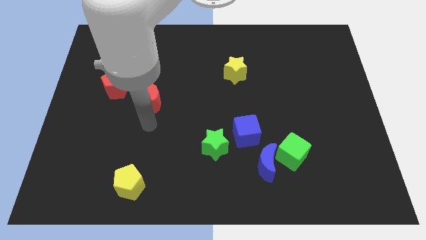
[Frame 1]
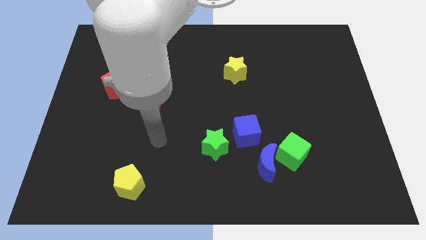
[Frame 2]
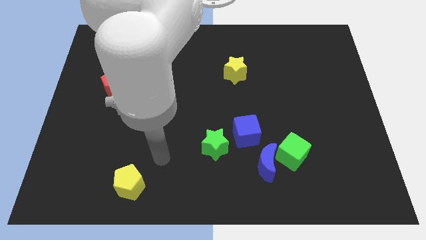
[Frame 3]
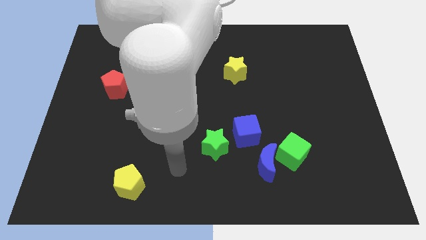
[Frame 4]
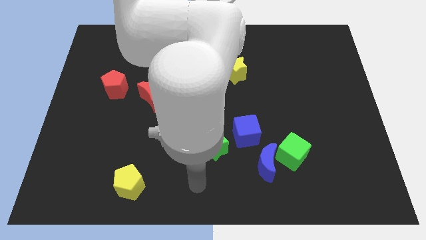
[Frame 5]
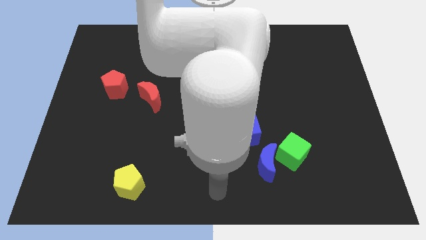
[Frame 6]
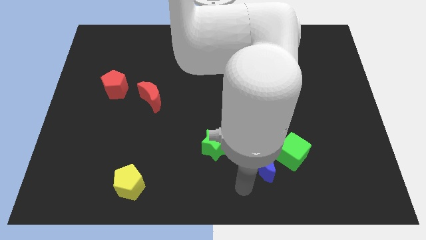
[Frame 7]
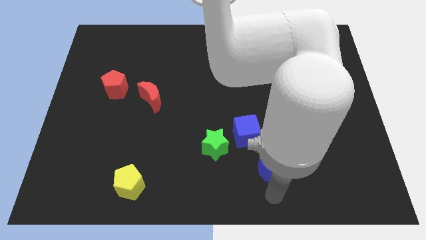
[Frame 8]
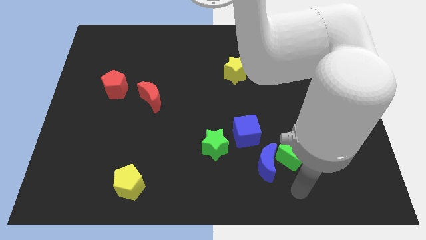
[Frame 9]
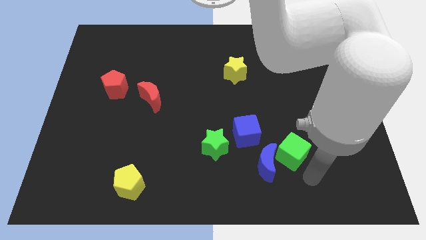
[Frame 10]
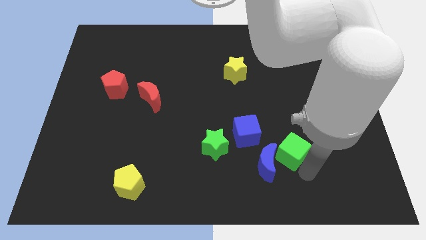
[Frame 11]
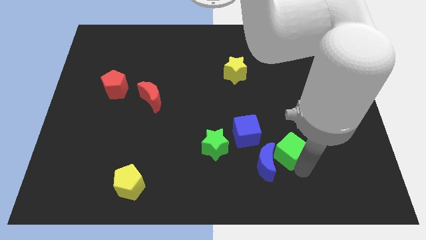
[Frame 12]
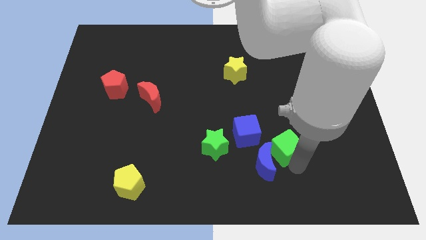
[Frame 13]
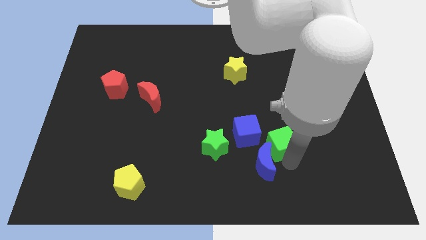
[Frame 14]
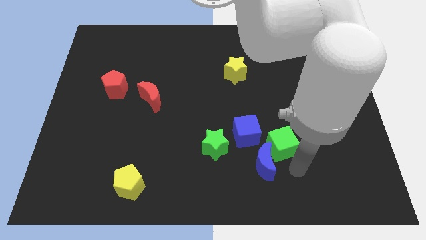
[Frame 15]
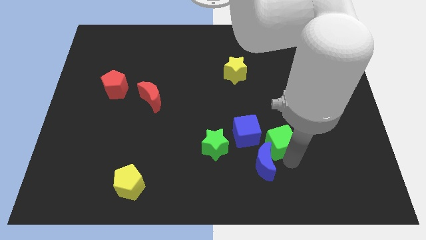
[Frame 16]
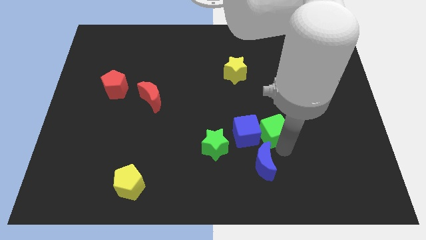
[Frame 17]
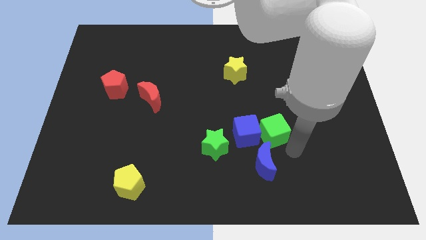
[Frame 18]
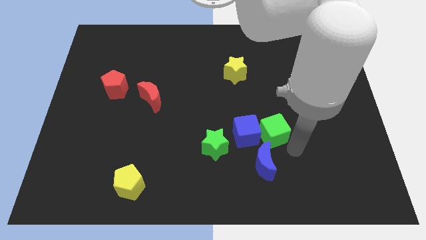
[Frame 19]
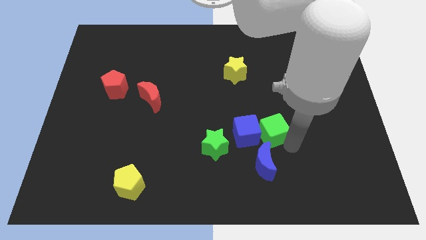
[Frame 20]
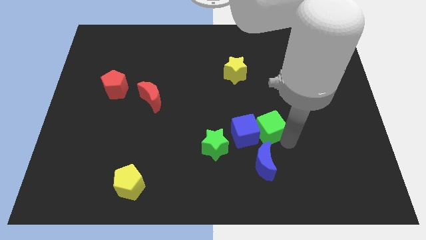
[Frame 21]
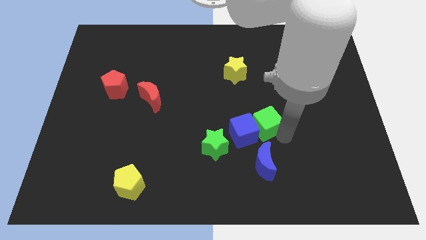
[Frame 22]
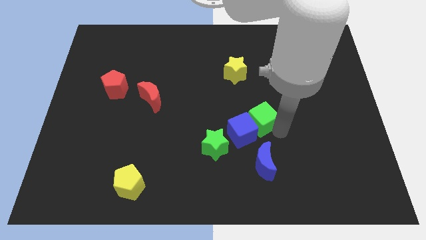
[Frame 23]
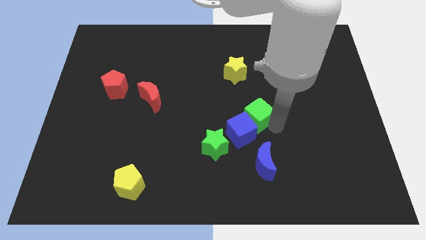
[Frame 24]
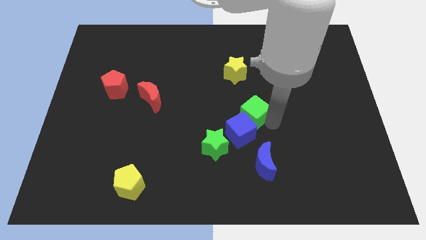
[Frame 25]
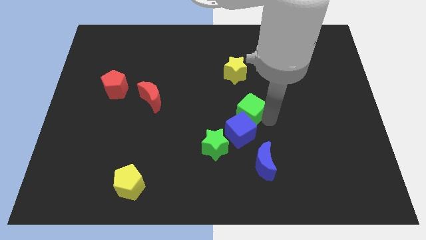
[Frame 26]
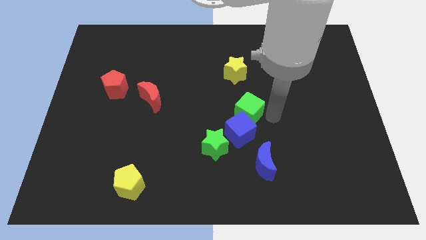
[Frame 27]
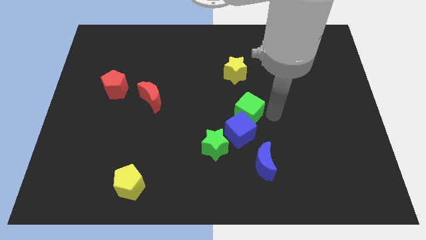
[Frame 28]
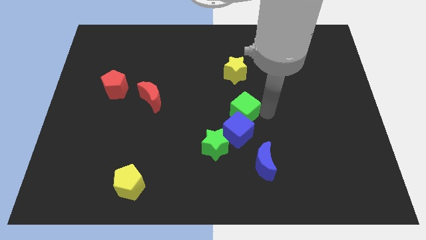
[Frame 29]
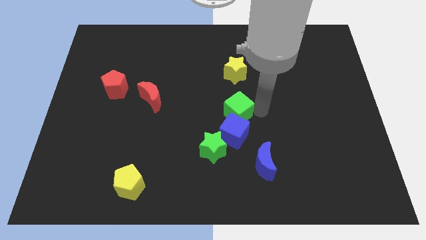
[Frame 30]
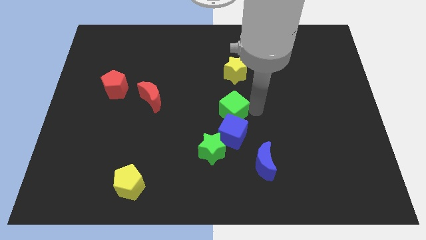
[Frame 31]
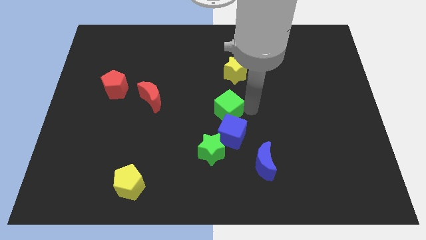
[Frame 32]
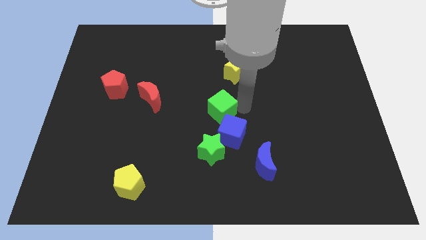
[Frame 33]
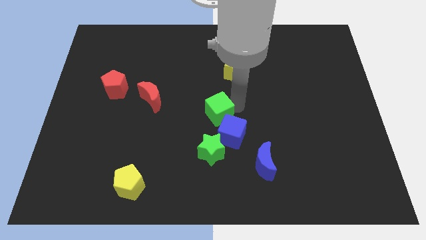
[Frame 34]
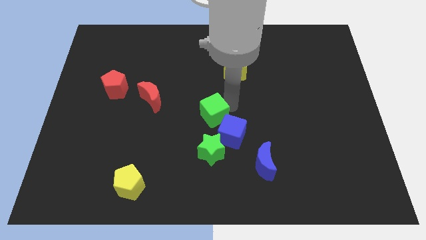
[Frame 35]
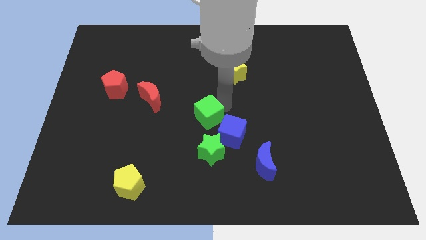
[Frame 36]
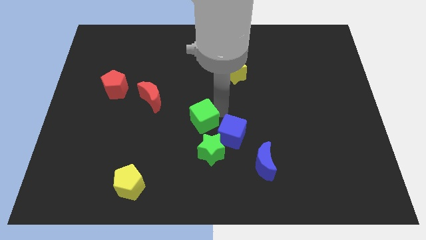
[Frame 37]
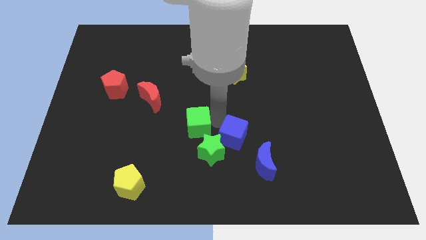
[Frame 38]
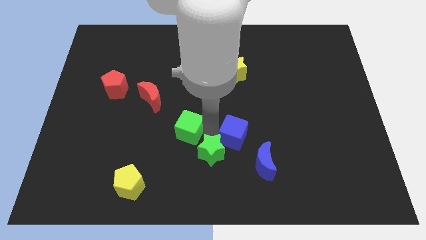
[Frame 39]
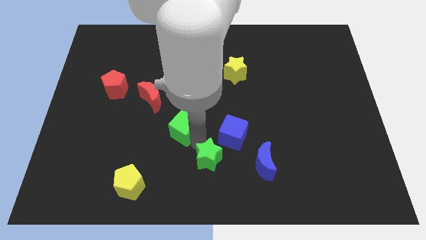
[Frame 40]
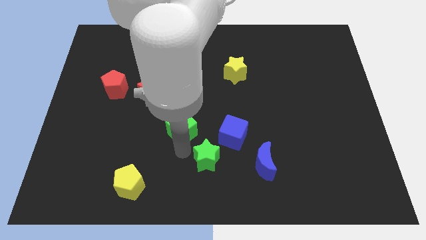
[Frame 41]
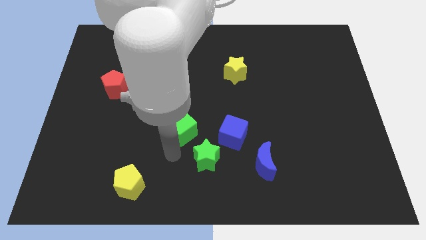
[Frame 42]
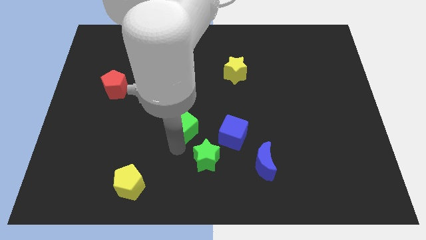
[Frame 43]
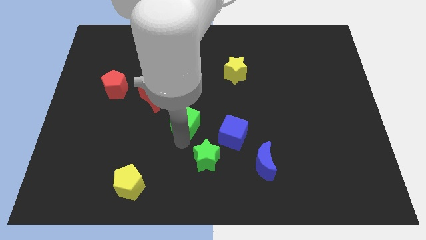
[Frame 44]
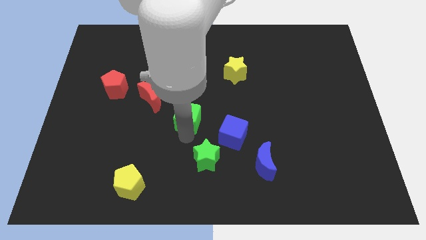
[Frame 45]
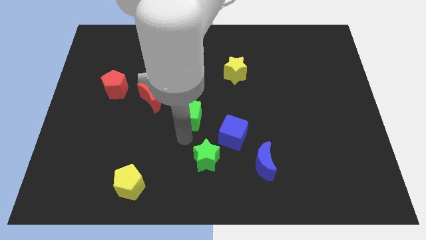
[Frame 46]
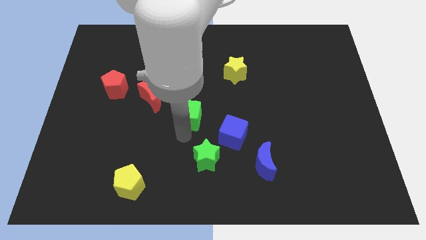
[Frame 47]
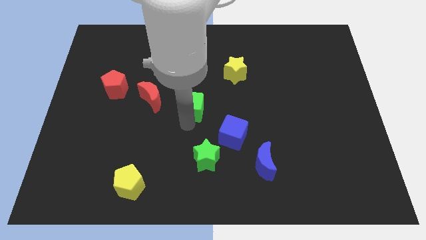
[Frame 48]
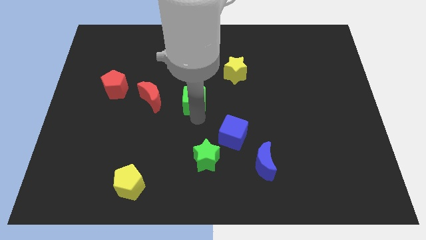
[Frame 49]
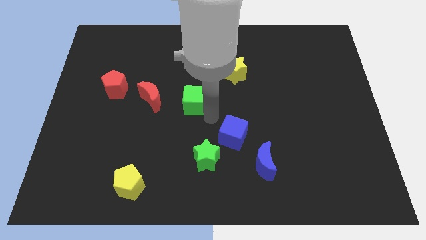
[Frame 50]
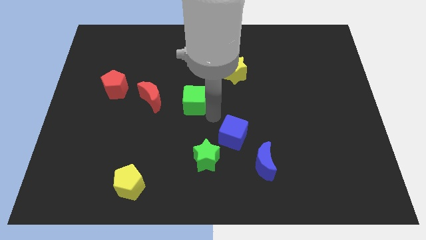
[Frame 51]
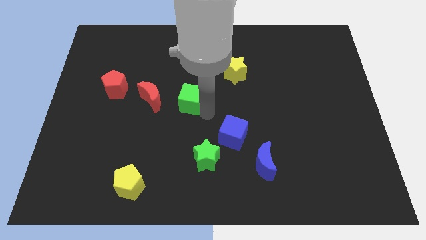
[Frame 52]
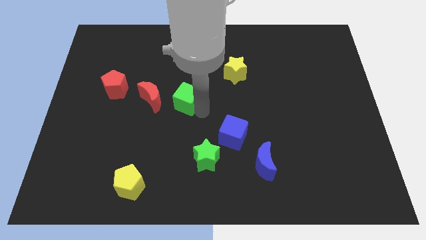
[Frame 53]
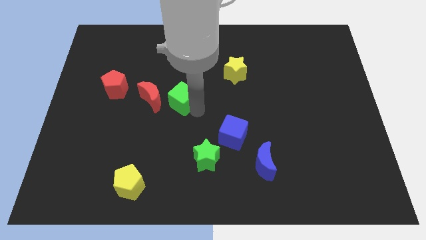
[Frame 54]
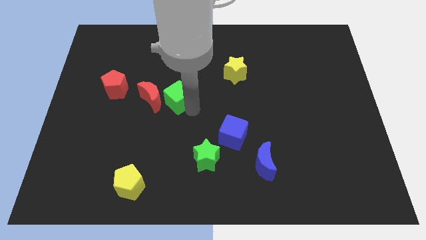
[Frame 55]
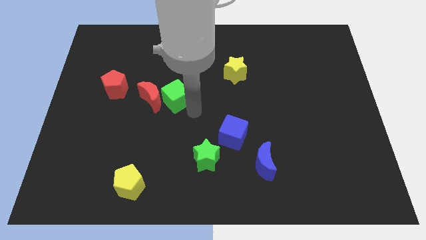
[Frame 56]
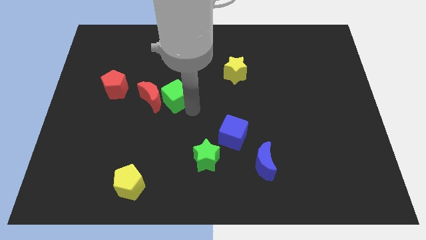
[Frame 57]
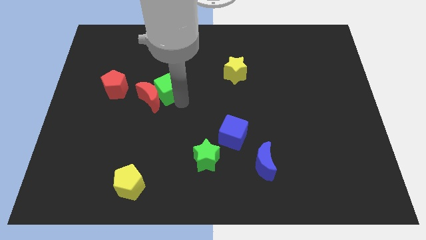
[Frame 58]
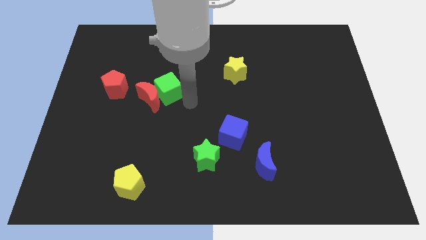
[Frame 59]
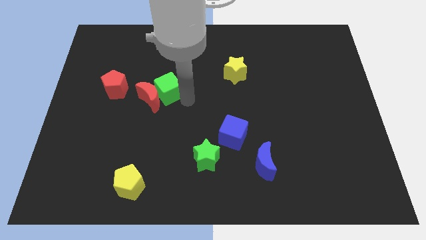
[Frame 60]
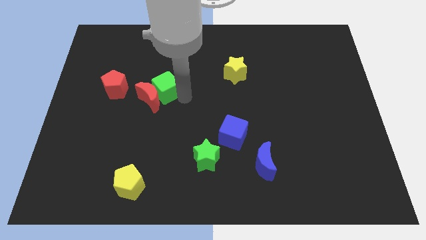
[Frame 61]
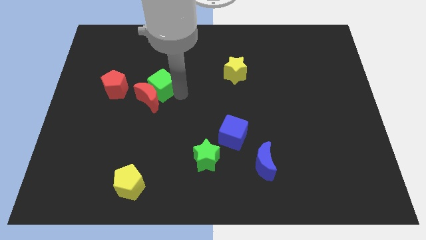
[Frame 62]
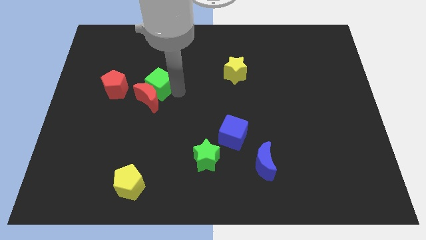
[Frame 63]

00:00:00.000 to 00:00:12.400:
slide the green cube diagonally up and to the left of the red moon

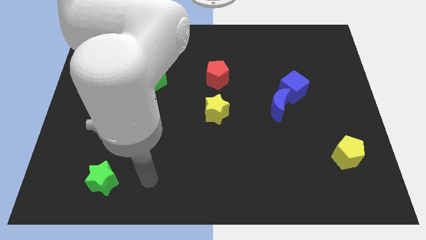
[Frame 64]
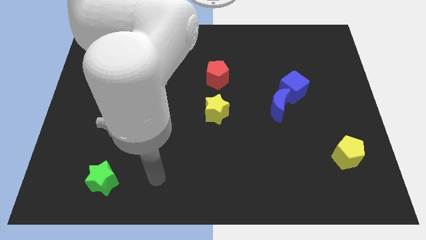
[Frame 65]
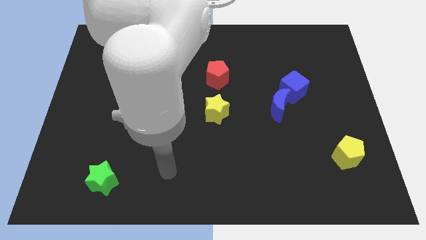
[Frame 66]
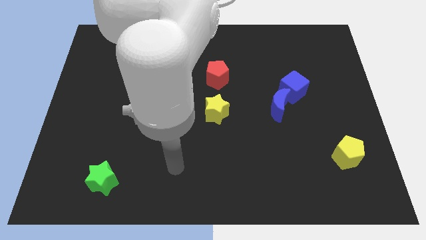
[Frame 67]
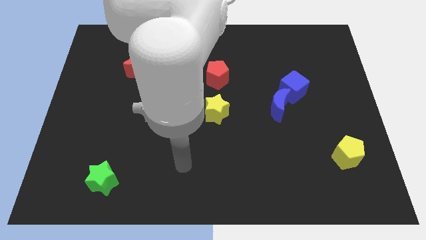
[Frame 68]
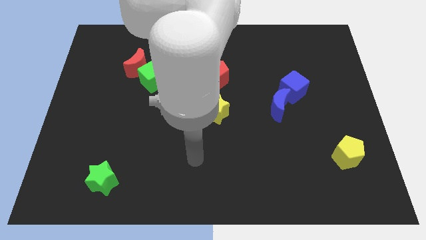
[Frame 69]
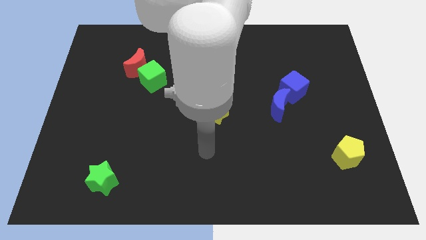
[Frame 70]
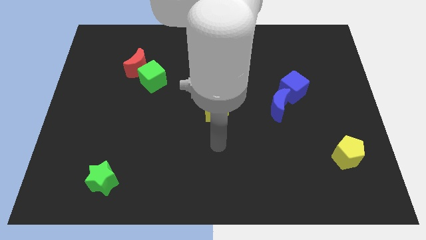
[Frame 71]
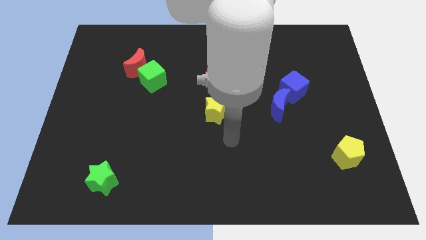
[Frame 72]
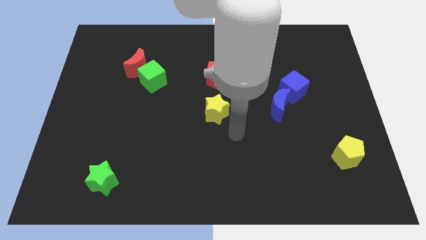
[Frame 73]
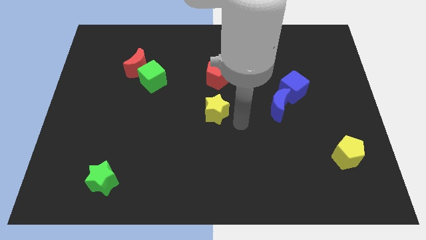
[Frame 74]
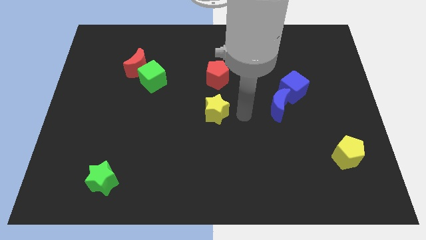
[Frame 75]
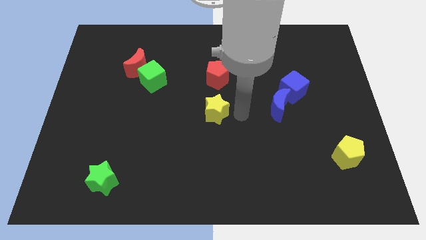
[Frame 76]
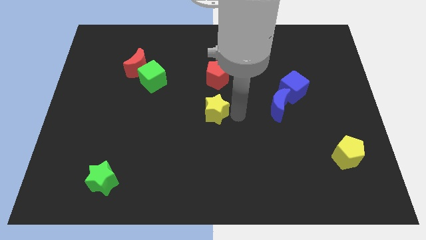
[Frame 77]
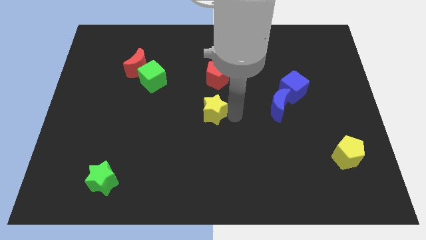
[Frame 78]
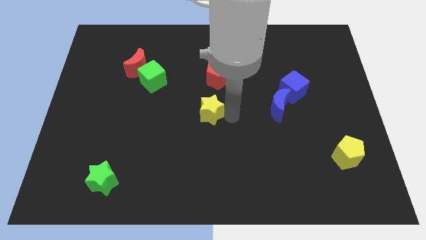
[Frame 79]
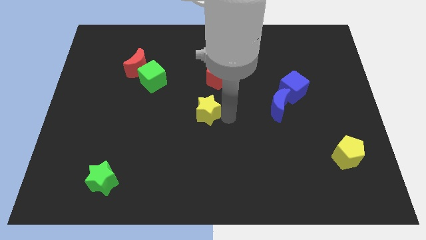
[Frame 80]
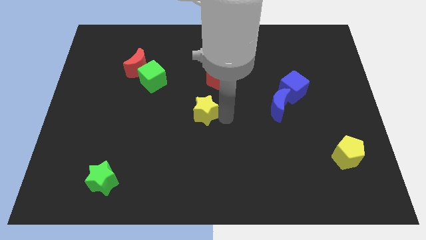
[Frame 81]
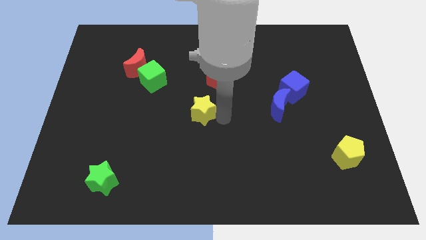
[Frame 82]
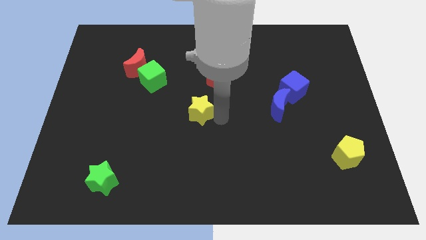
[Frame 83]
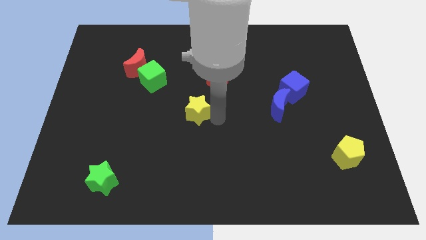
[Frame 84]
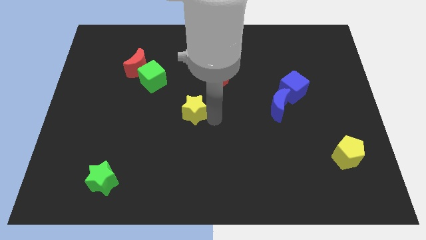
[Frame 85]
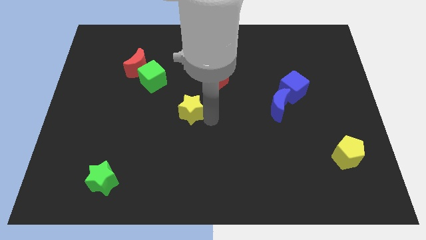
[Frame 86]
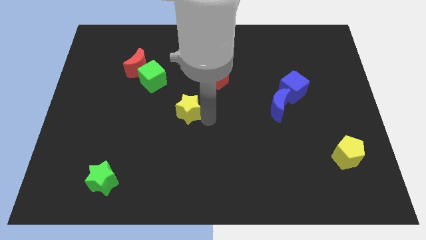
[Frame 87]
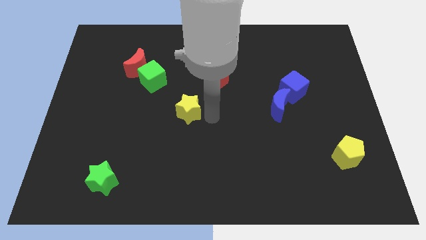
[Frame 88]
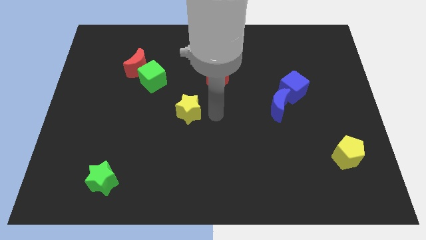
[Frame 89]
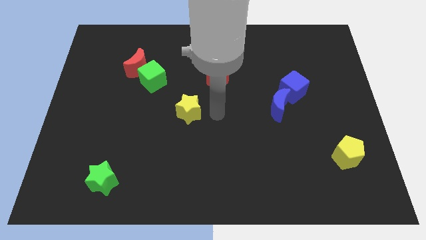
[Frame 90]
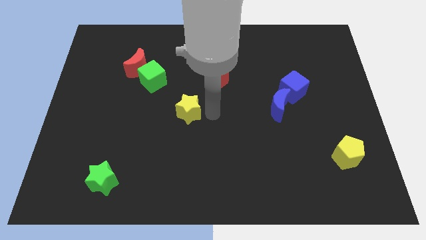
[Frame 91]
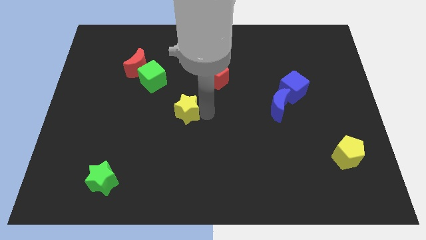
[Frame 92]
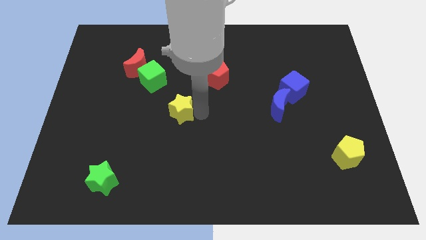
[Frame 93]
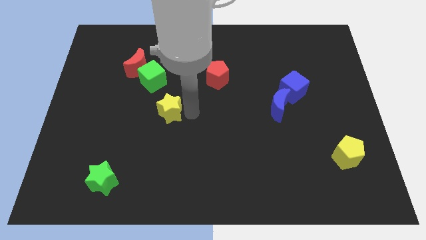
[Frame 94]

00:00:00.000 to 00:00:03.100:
move the yellow star below the green cube
